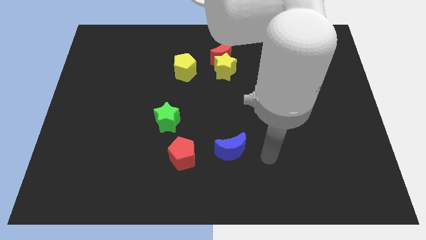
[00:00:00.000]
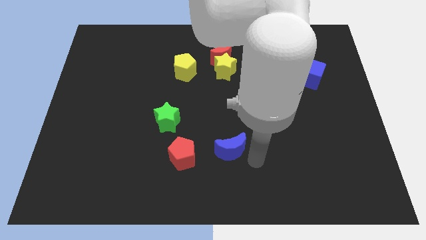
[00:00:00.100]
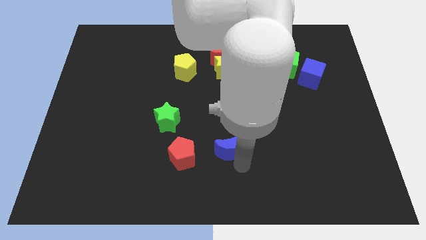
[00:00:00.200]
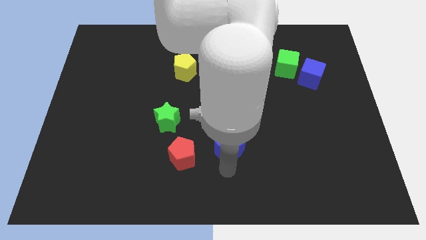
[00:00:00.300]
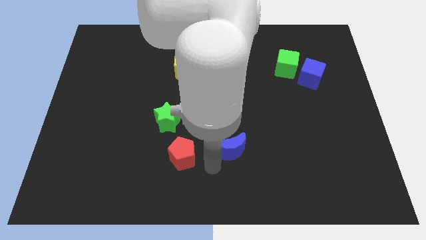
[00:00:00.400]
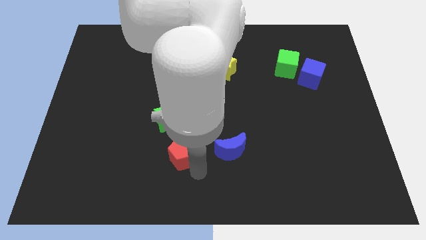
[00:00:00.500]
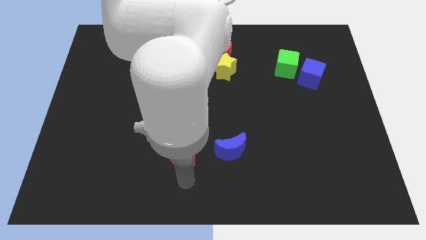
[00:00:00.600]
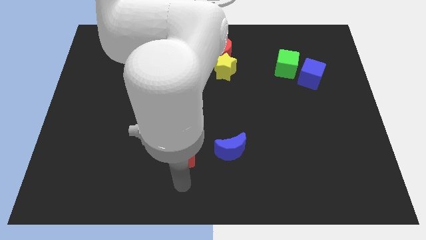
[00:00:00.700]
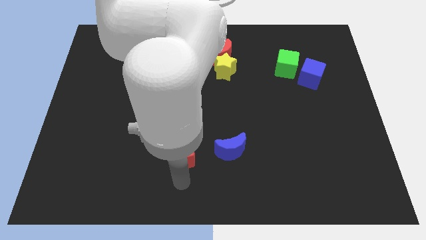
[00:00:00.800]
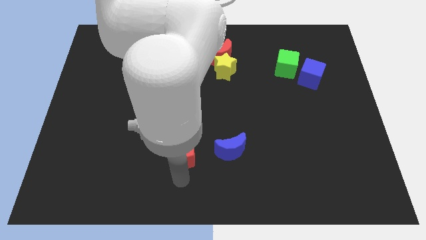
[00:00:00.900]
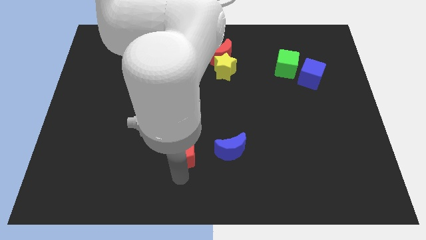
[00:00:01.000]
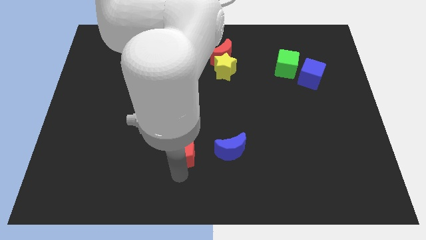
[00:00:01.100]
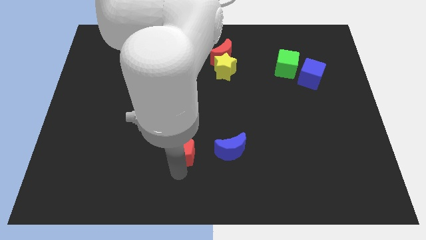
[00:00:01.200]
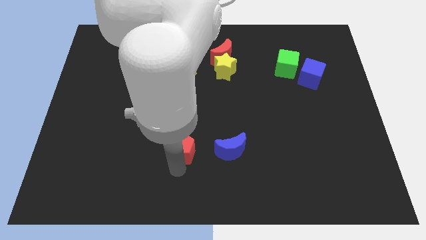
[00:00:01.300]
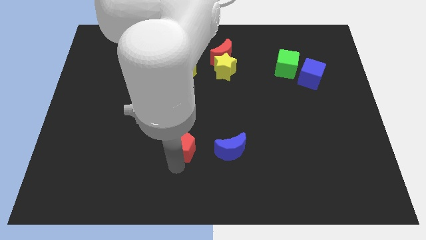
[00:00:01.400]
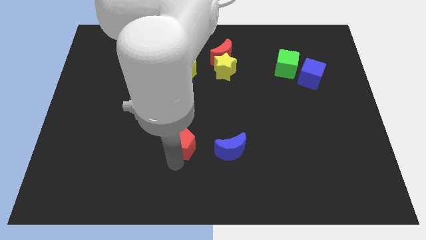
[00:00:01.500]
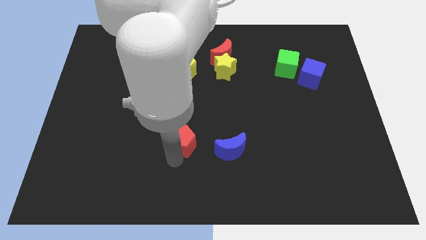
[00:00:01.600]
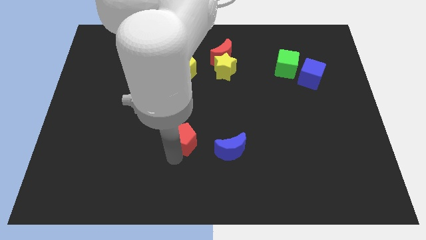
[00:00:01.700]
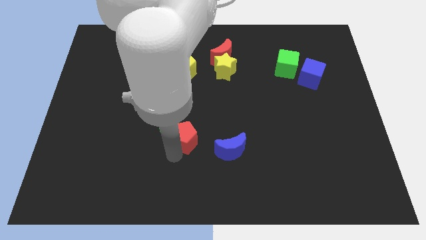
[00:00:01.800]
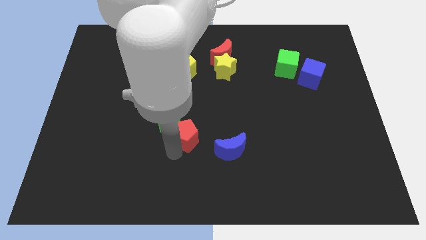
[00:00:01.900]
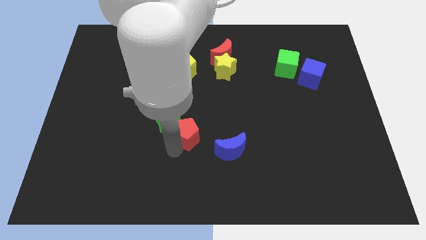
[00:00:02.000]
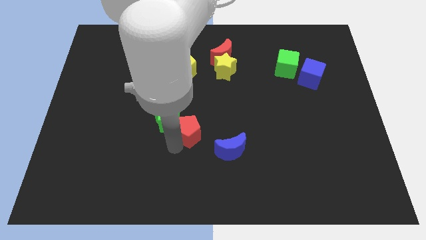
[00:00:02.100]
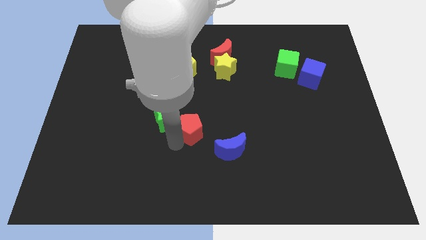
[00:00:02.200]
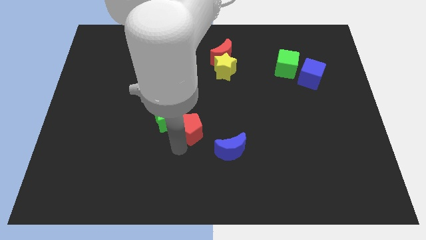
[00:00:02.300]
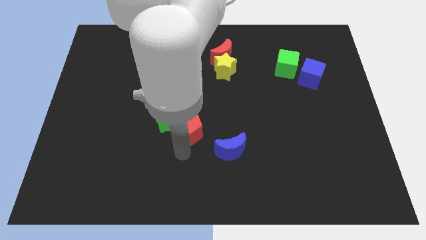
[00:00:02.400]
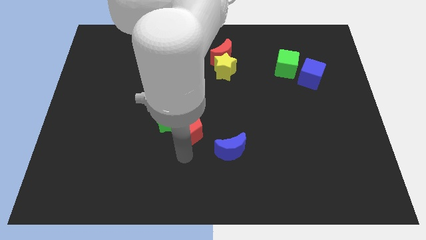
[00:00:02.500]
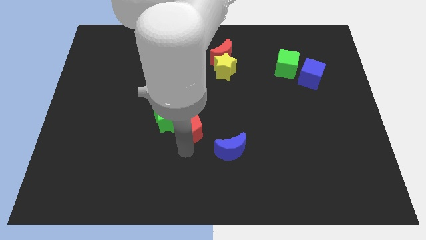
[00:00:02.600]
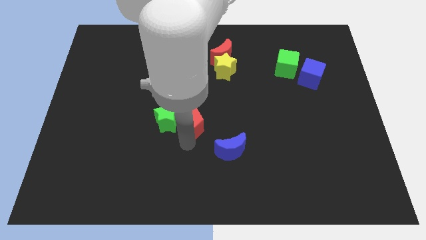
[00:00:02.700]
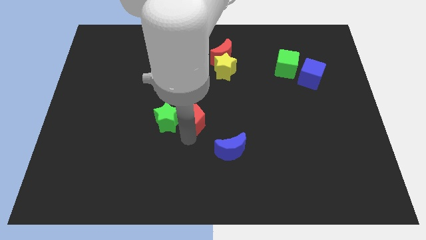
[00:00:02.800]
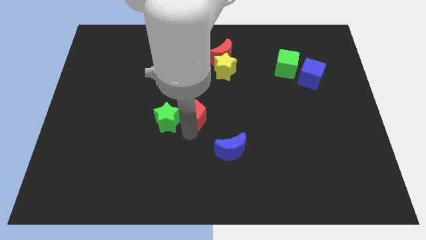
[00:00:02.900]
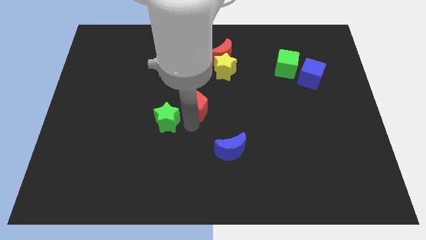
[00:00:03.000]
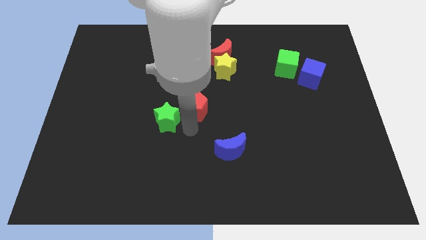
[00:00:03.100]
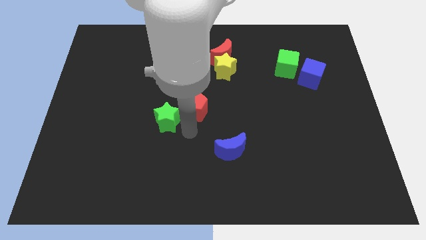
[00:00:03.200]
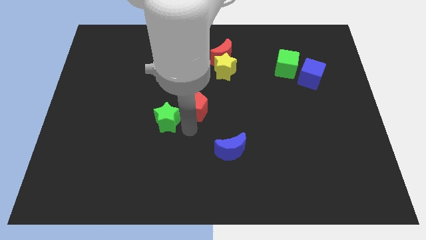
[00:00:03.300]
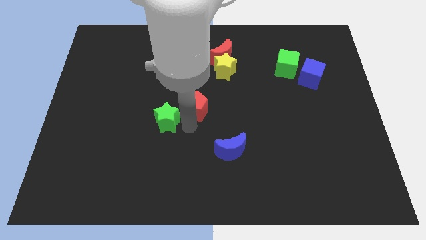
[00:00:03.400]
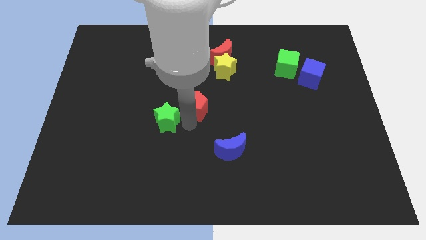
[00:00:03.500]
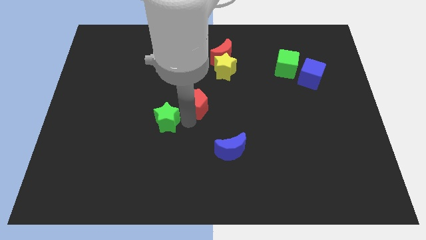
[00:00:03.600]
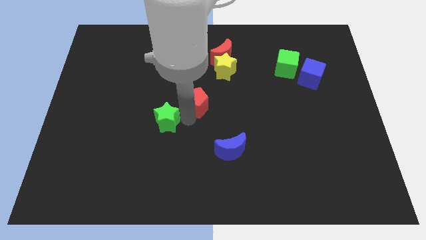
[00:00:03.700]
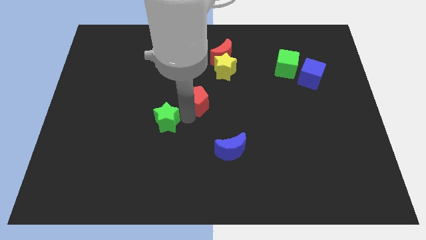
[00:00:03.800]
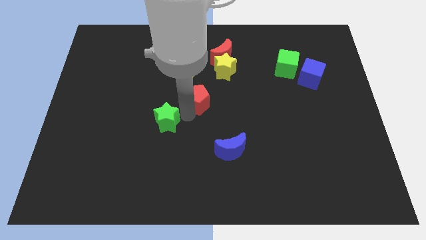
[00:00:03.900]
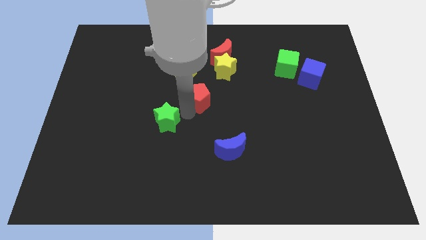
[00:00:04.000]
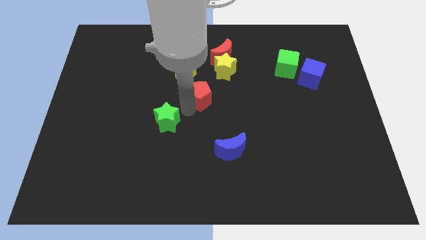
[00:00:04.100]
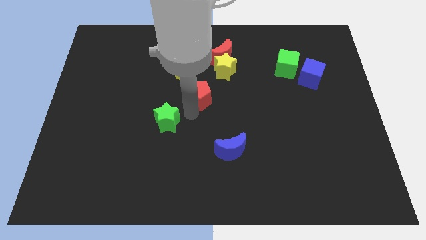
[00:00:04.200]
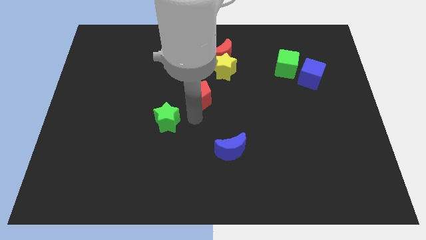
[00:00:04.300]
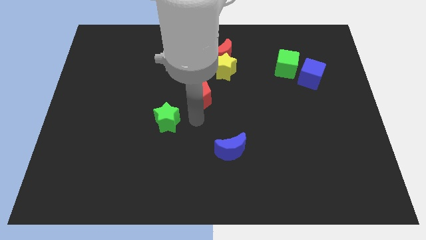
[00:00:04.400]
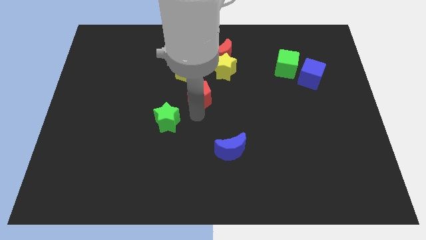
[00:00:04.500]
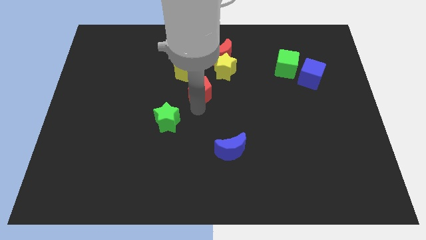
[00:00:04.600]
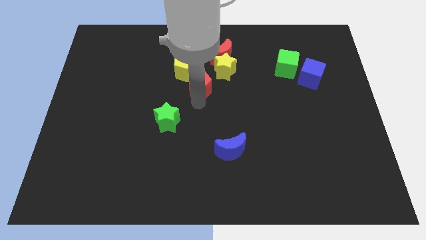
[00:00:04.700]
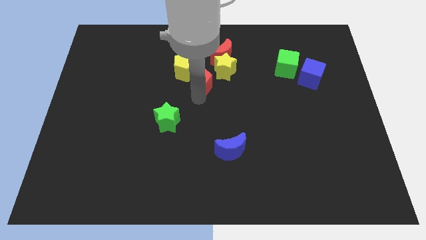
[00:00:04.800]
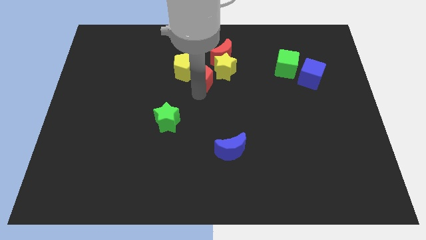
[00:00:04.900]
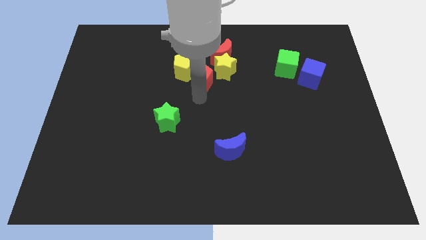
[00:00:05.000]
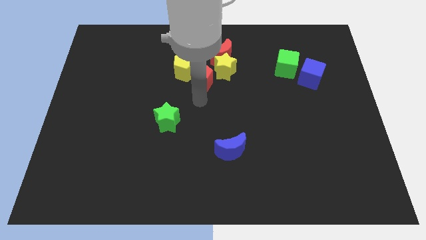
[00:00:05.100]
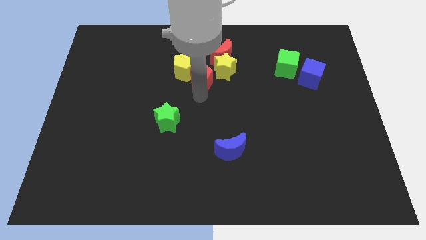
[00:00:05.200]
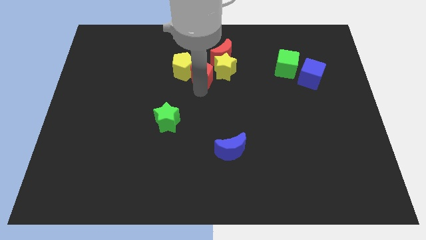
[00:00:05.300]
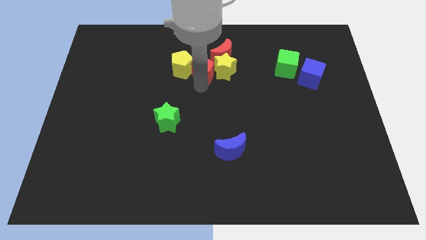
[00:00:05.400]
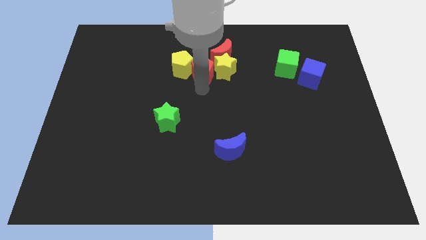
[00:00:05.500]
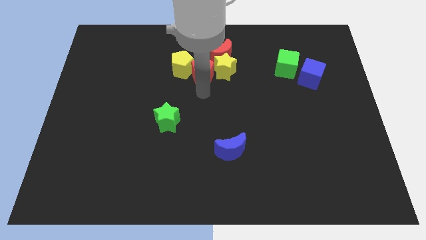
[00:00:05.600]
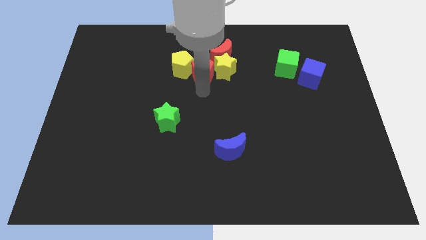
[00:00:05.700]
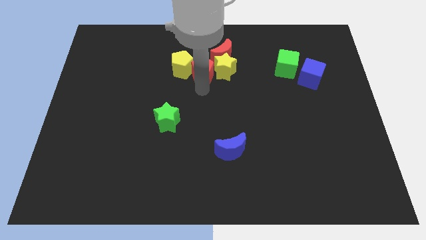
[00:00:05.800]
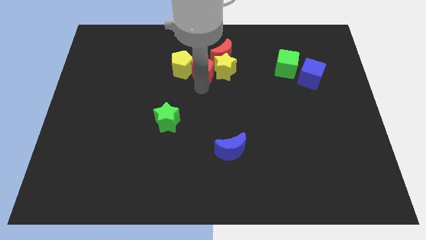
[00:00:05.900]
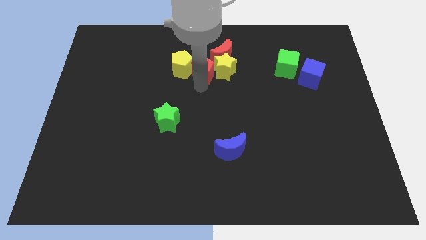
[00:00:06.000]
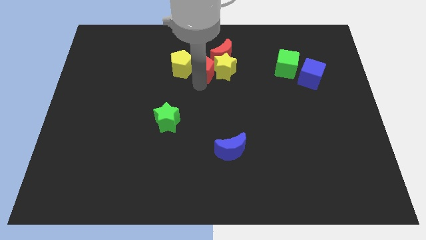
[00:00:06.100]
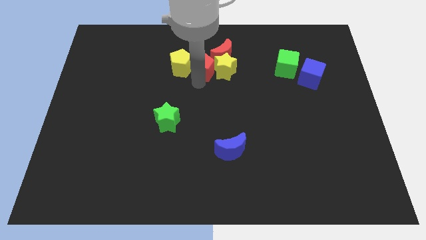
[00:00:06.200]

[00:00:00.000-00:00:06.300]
move the red pentagon left of the red moon

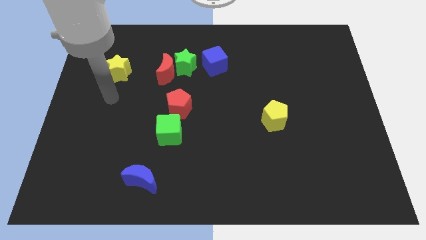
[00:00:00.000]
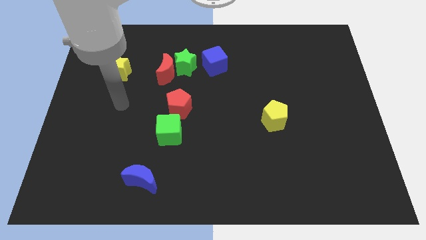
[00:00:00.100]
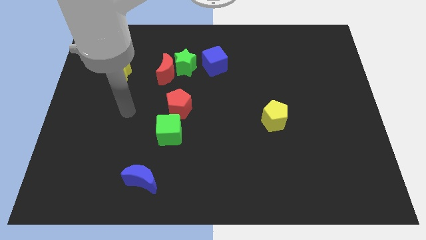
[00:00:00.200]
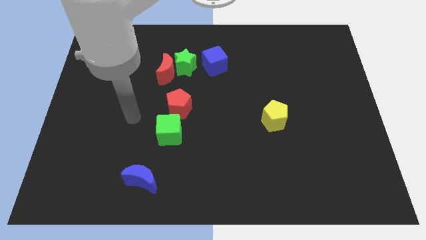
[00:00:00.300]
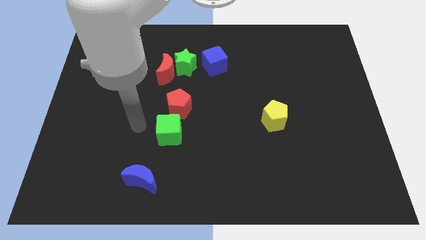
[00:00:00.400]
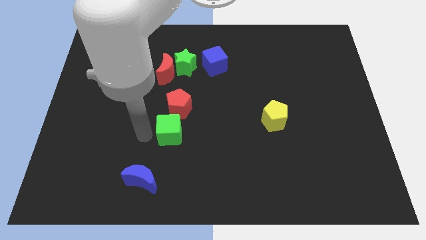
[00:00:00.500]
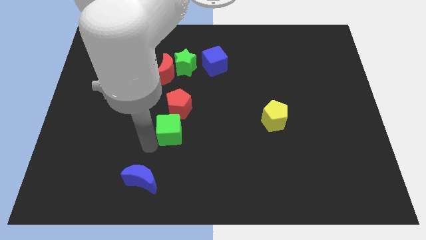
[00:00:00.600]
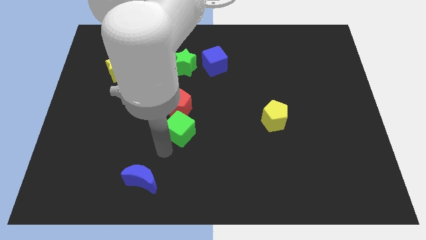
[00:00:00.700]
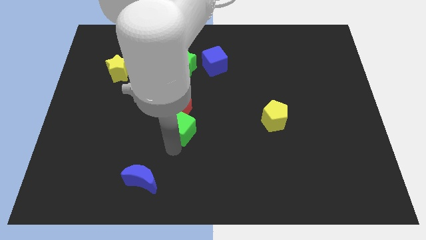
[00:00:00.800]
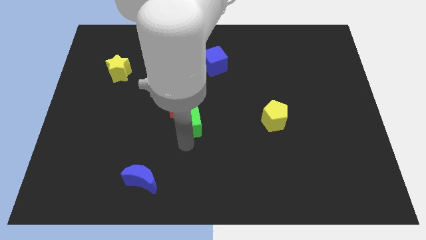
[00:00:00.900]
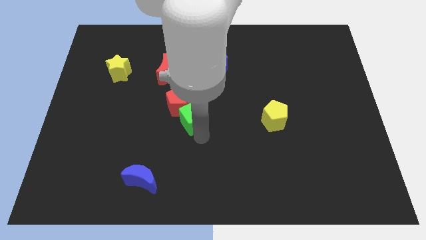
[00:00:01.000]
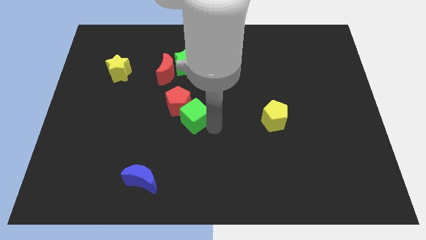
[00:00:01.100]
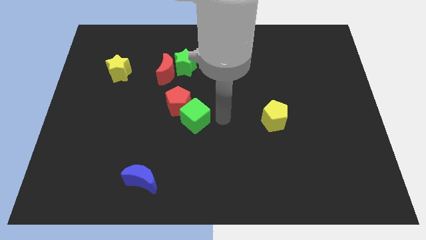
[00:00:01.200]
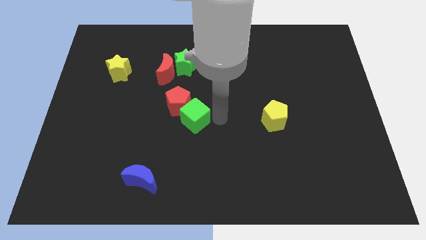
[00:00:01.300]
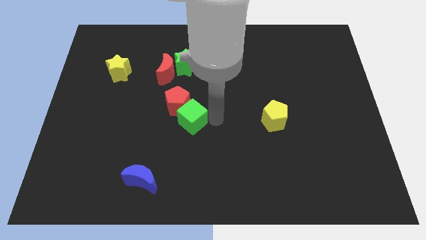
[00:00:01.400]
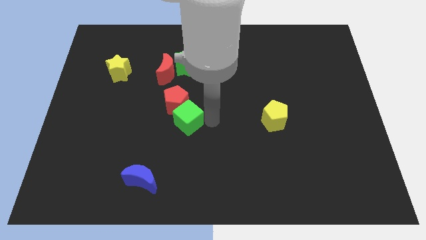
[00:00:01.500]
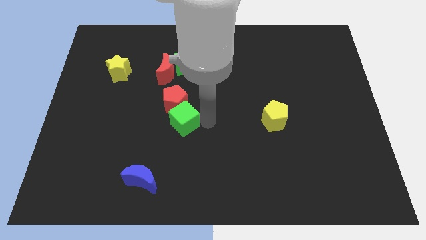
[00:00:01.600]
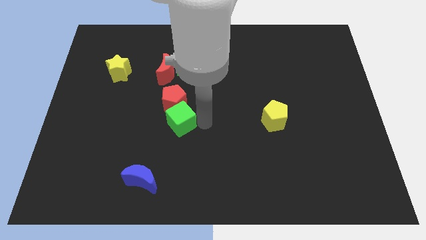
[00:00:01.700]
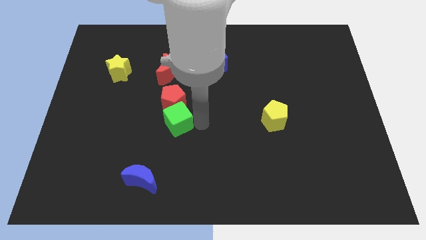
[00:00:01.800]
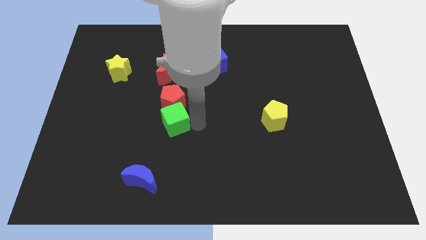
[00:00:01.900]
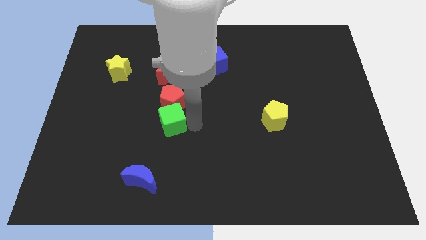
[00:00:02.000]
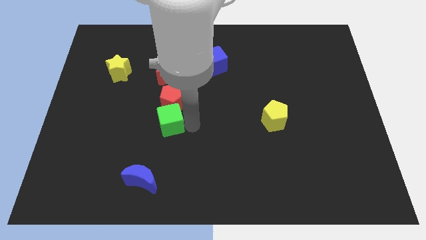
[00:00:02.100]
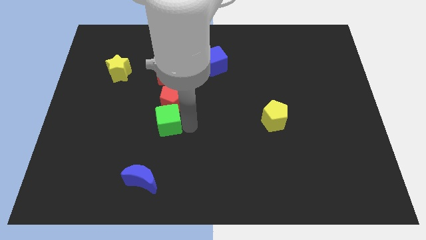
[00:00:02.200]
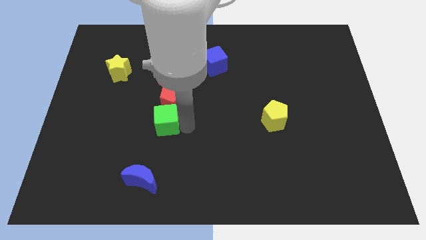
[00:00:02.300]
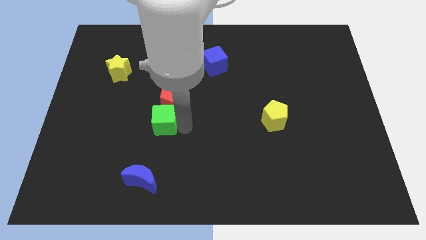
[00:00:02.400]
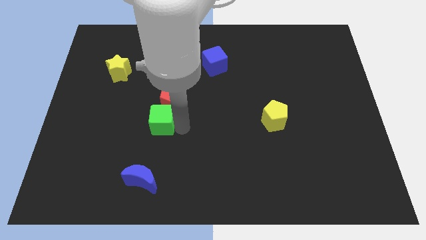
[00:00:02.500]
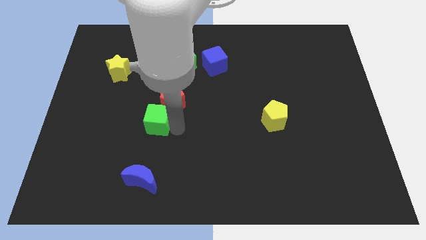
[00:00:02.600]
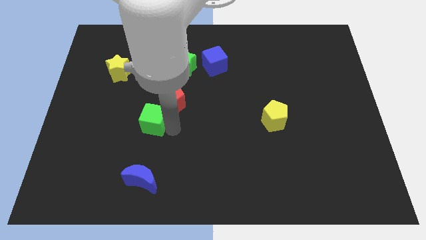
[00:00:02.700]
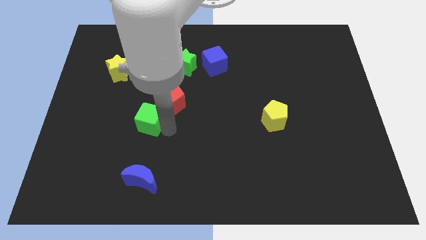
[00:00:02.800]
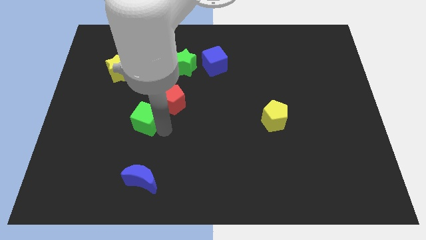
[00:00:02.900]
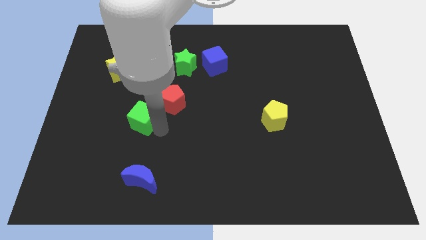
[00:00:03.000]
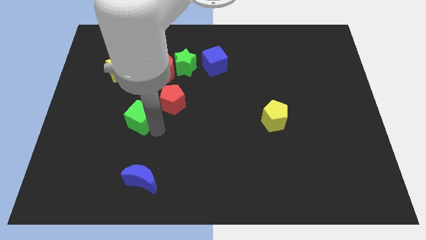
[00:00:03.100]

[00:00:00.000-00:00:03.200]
slide the green cube just left of the red pentagon
